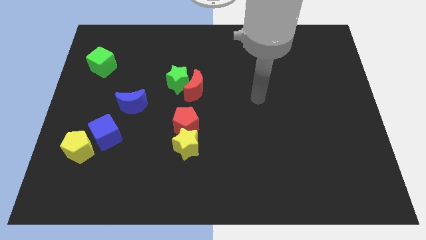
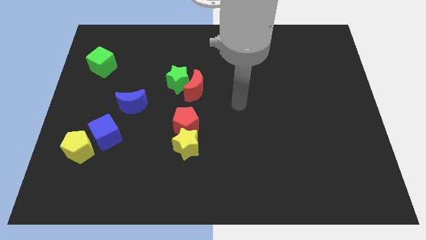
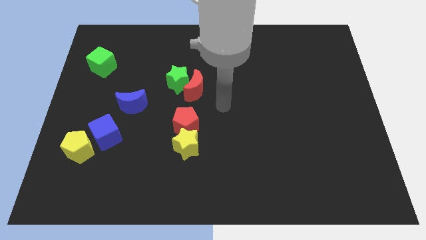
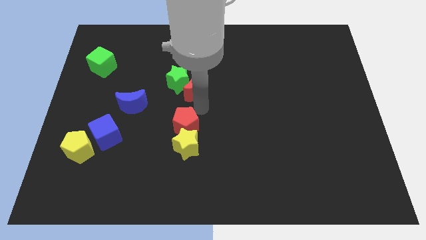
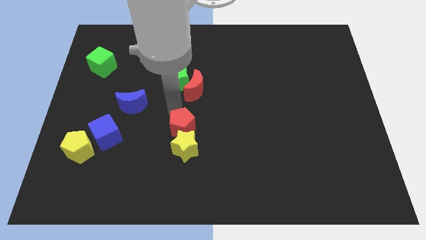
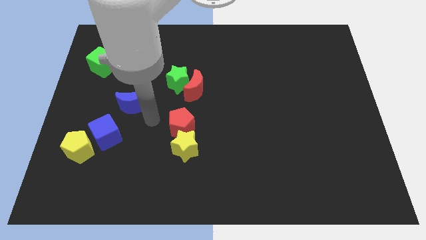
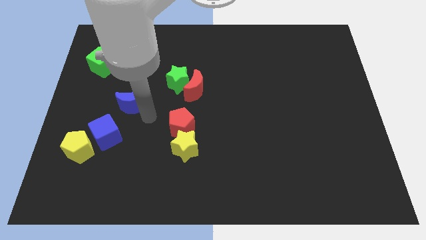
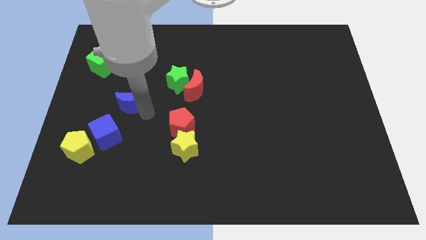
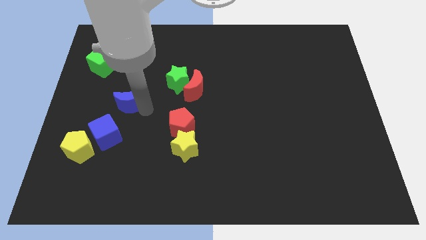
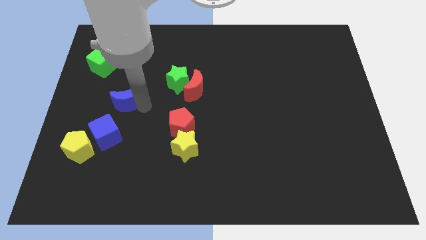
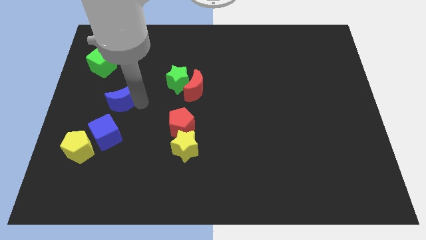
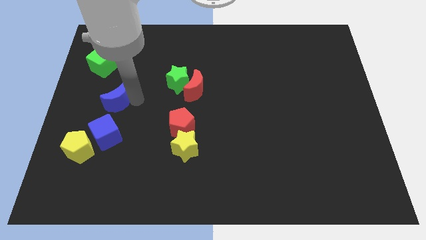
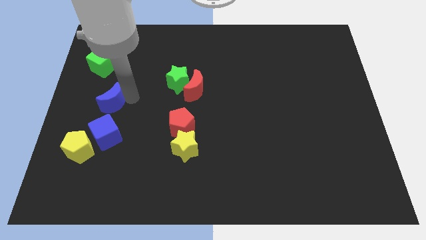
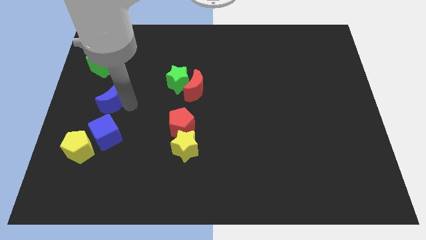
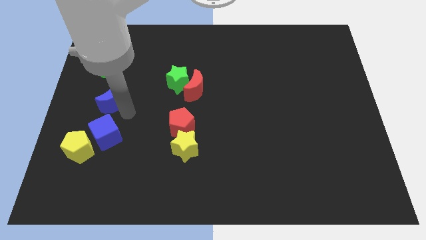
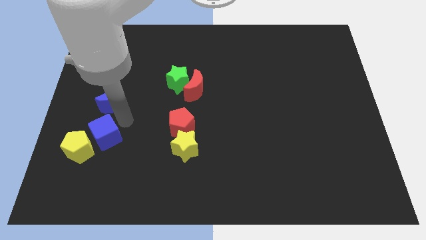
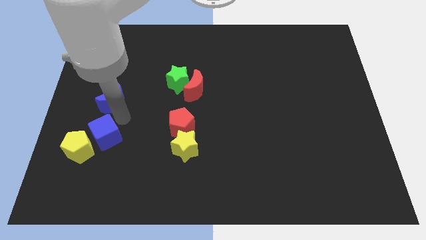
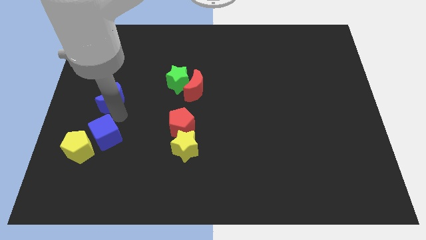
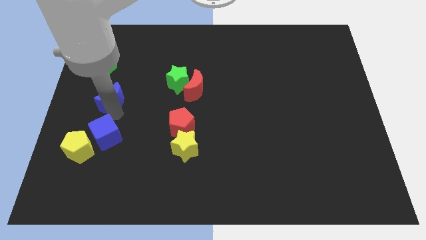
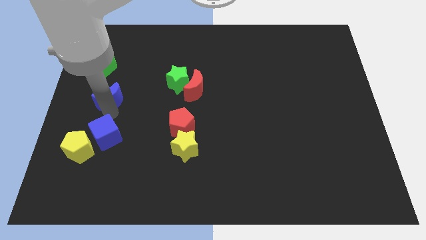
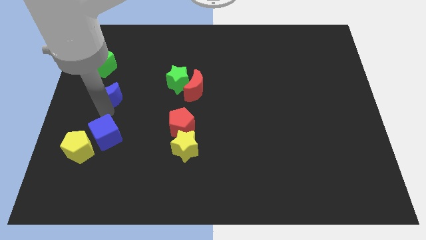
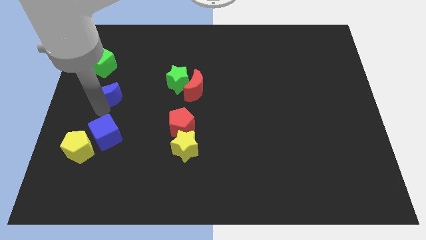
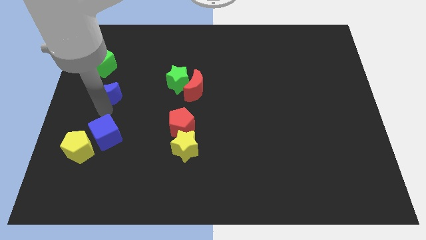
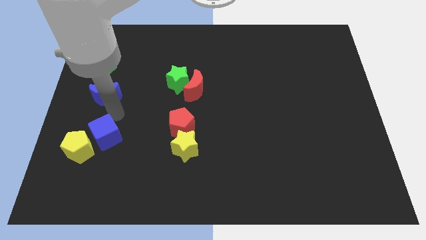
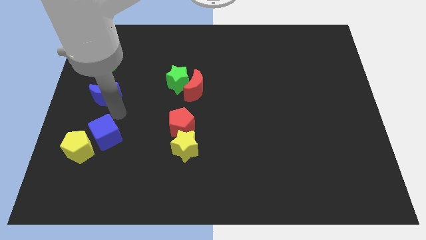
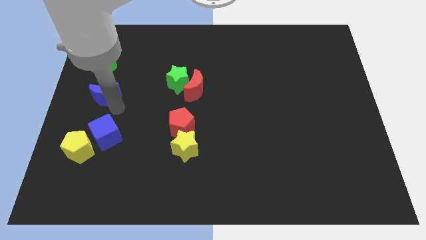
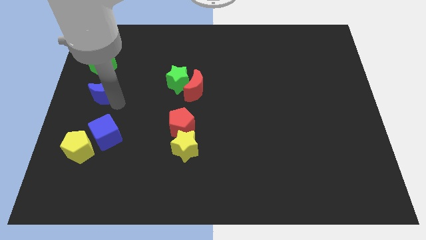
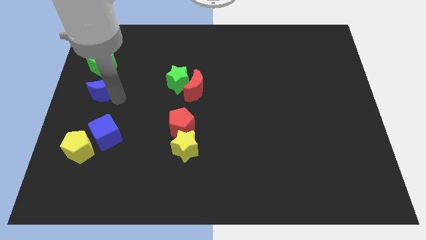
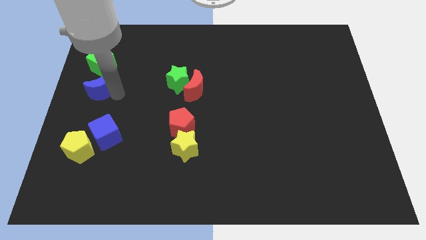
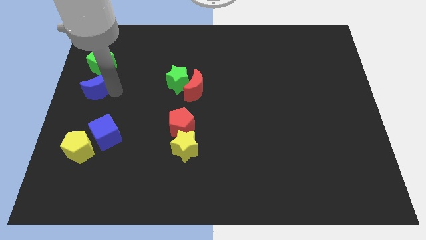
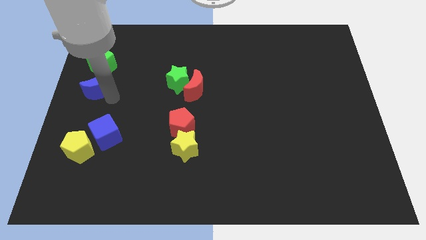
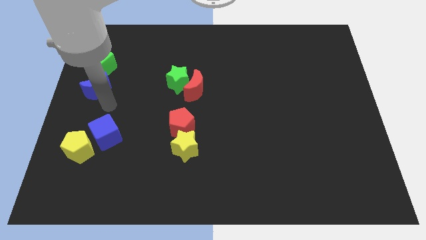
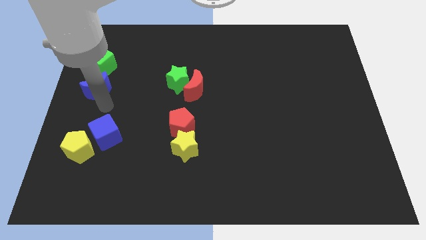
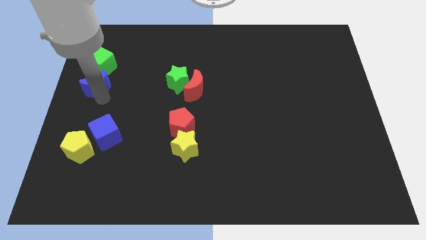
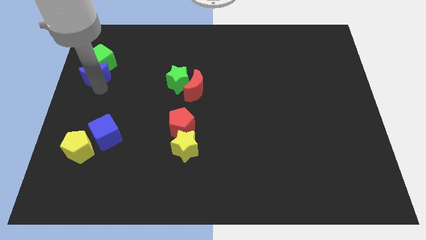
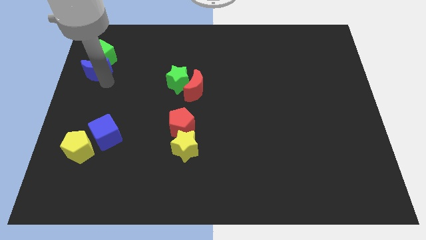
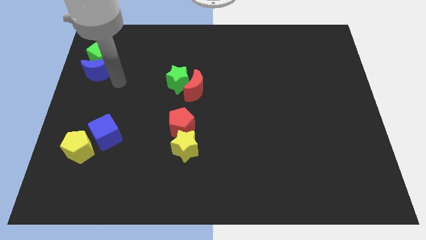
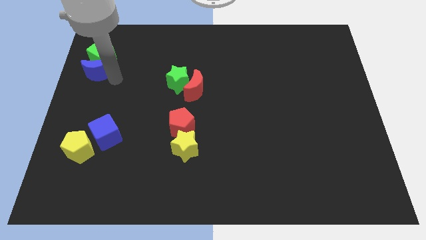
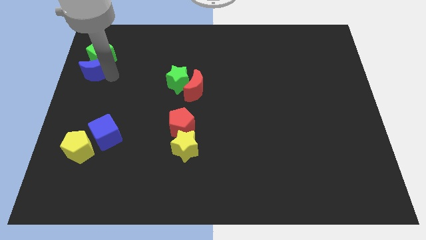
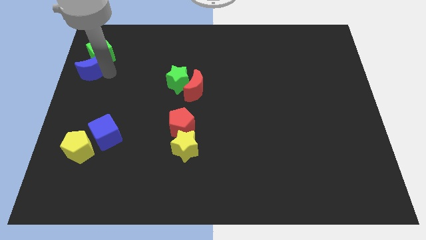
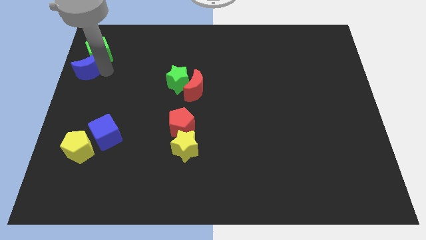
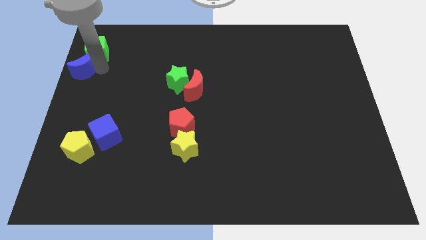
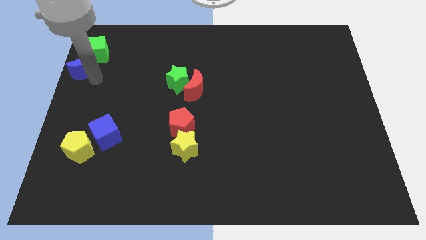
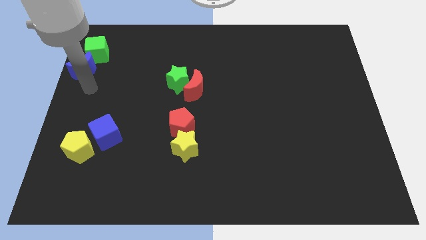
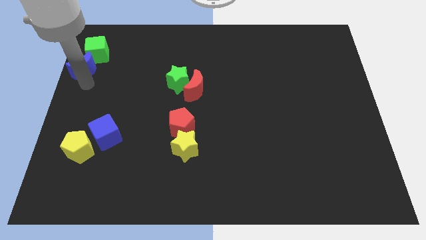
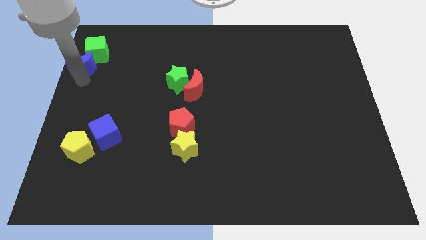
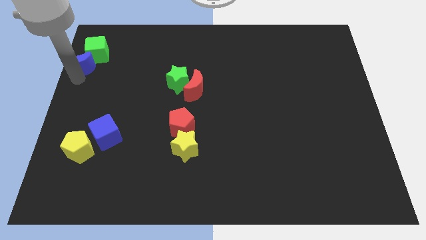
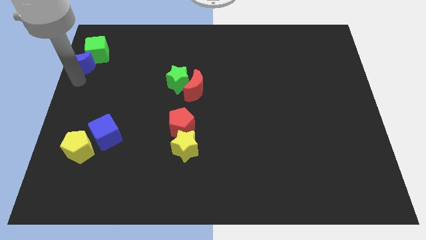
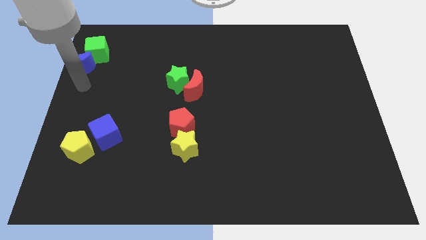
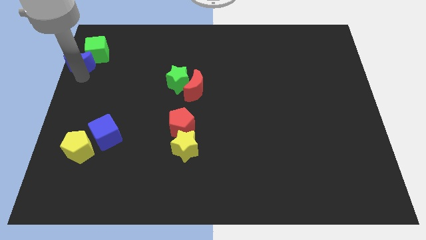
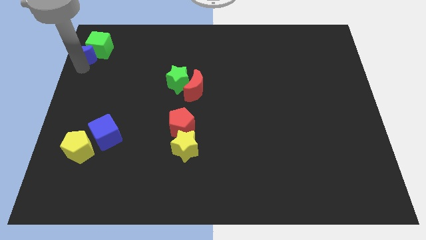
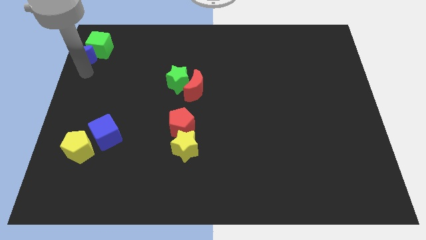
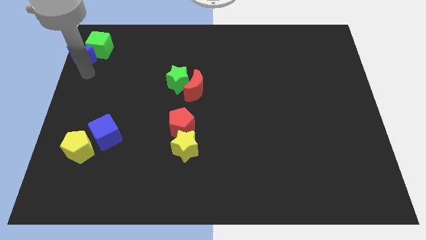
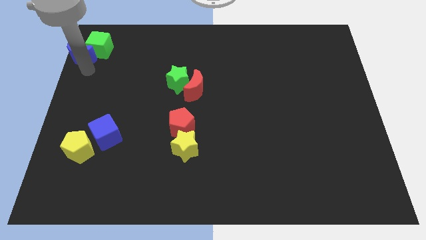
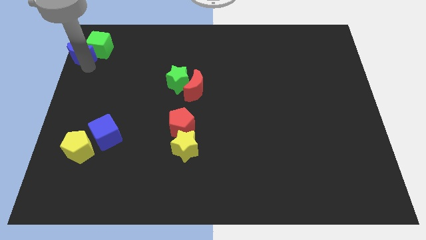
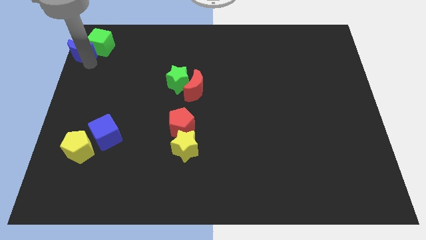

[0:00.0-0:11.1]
push the blue moon to the upper left corner

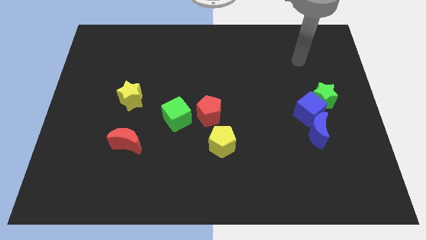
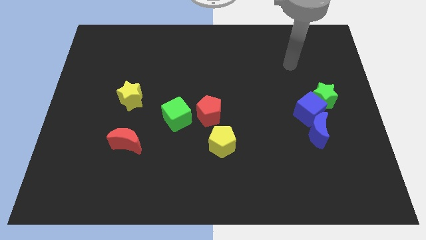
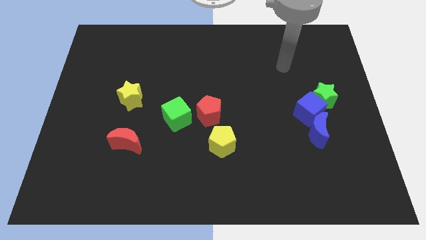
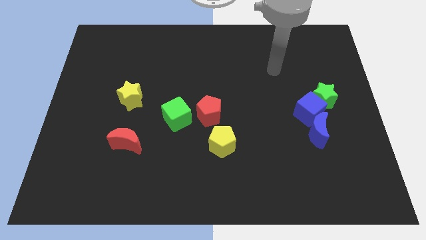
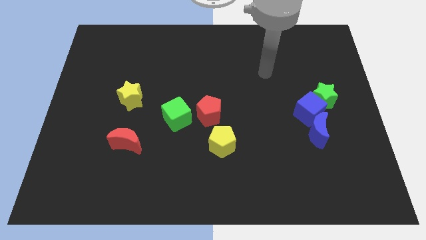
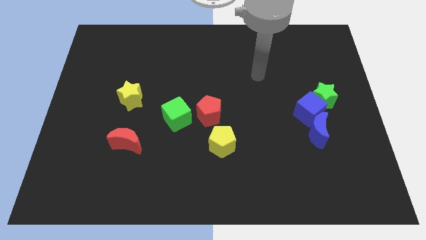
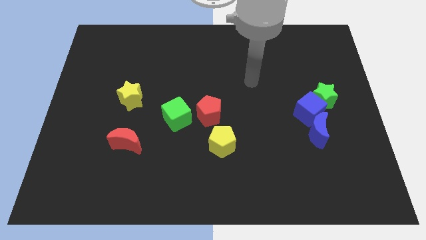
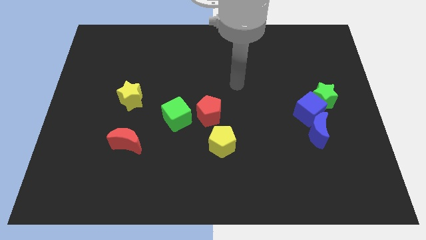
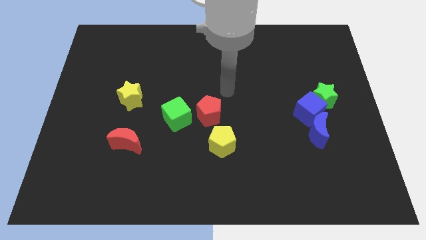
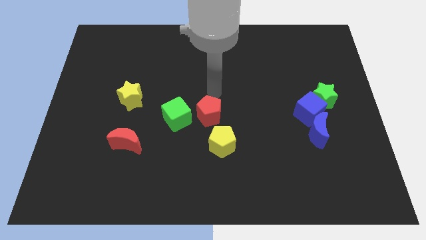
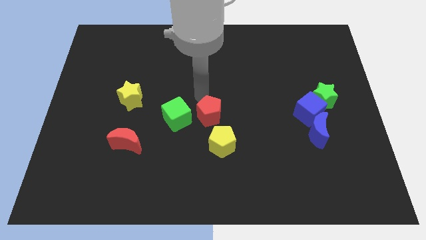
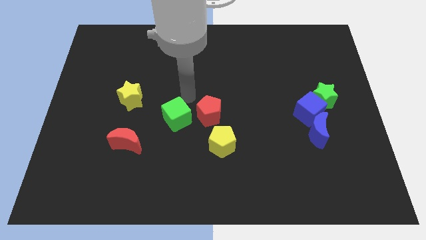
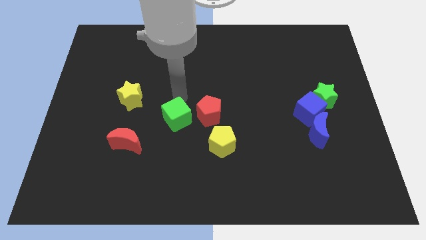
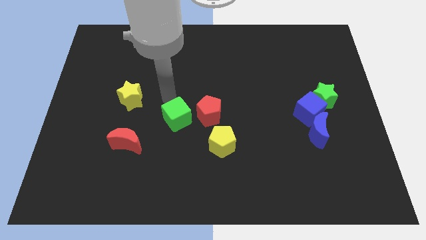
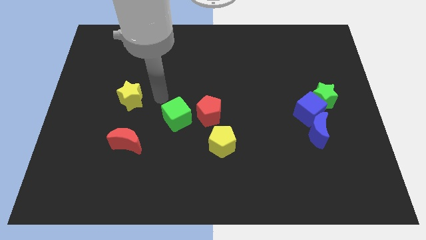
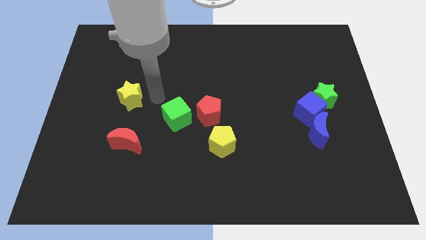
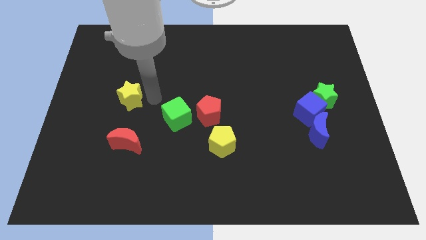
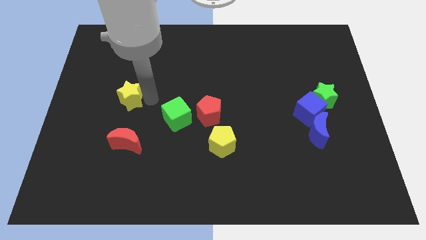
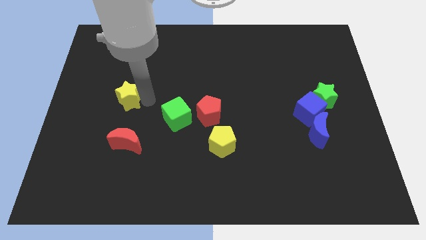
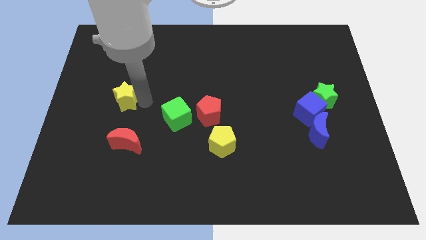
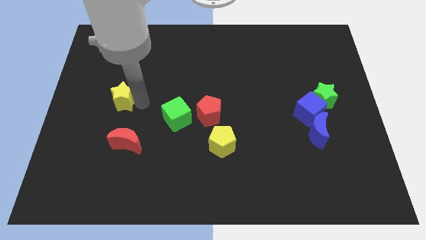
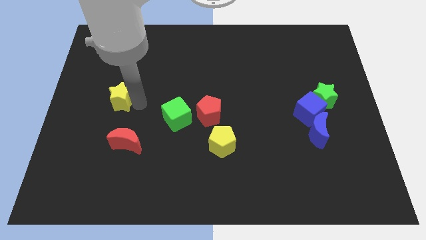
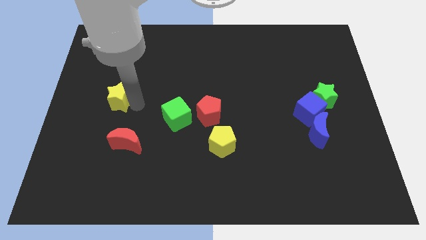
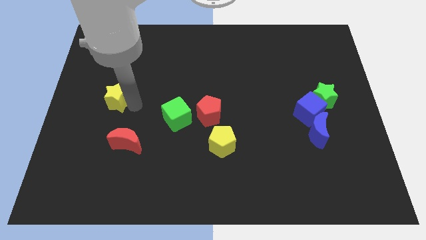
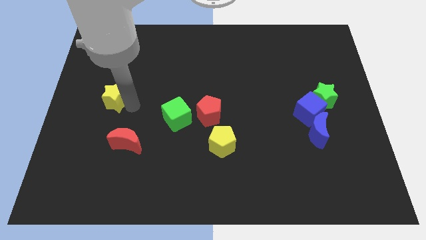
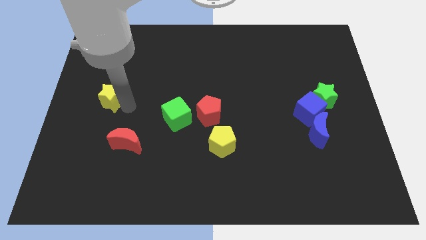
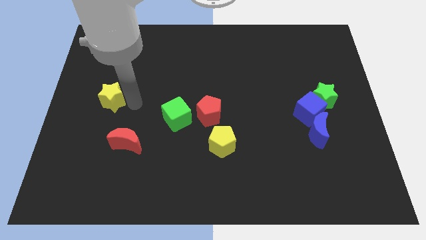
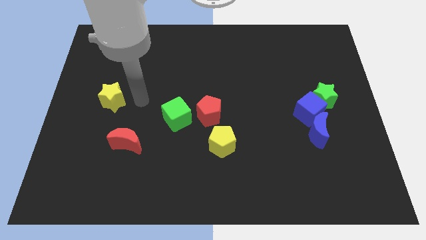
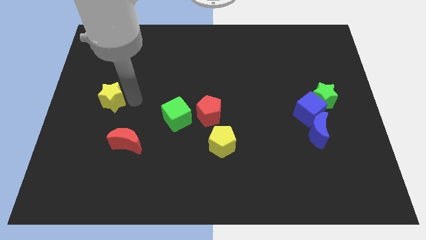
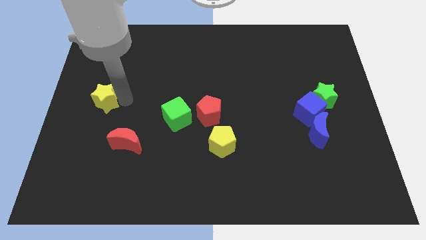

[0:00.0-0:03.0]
push the yellow star to the center left
